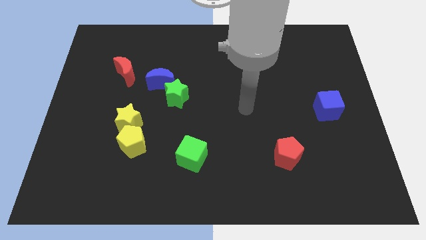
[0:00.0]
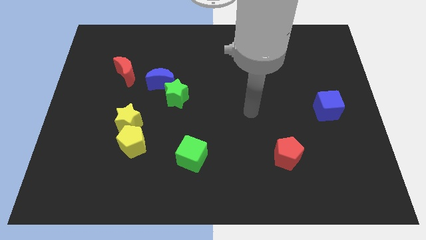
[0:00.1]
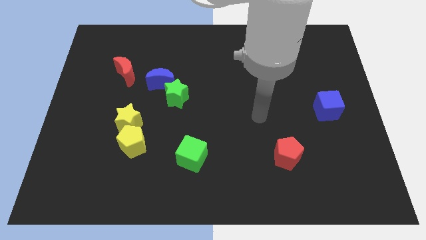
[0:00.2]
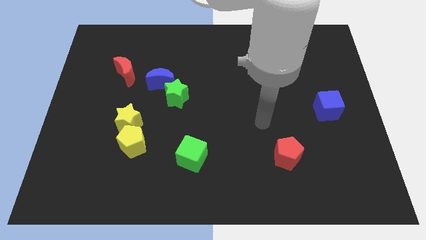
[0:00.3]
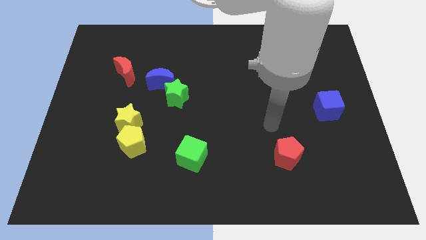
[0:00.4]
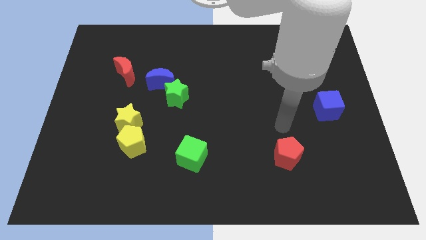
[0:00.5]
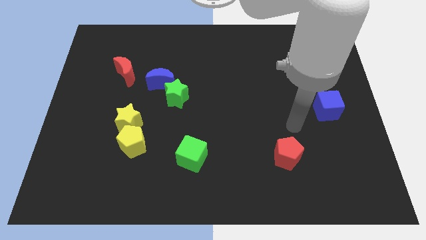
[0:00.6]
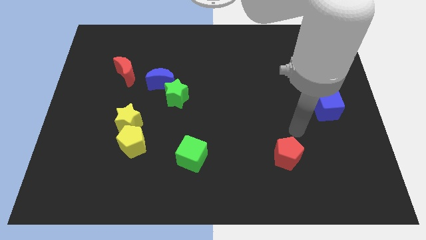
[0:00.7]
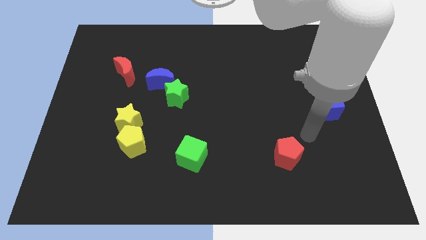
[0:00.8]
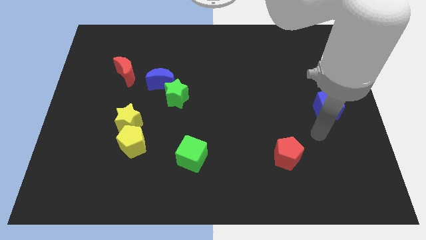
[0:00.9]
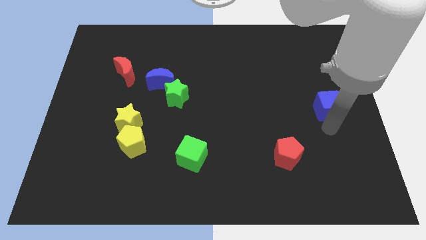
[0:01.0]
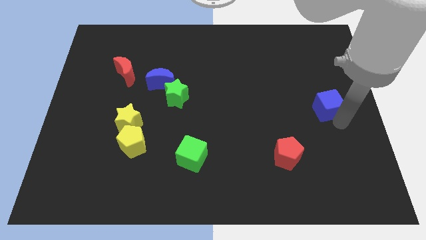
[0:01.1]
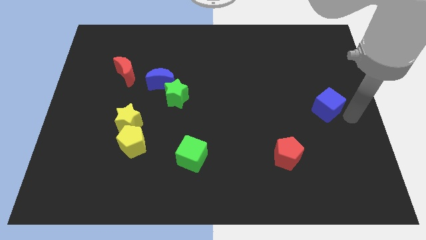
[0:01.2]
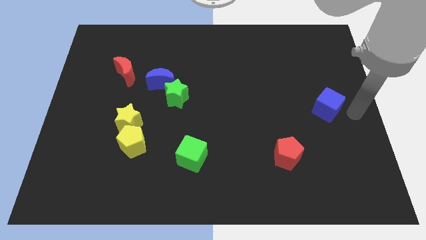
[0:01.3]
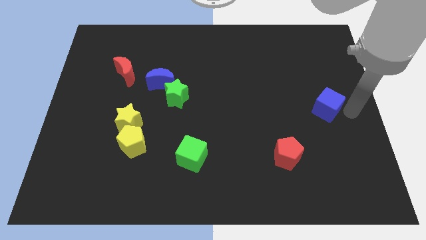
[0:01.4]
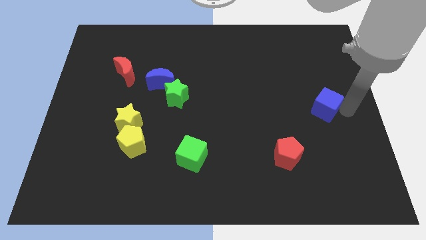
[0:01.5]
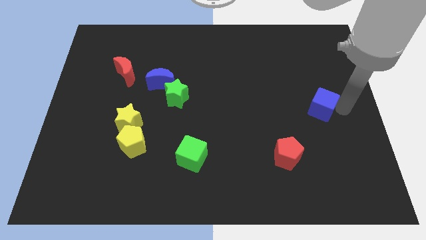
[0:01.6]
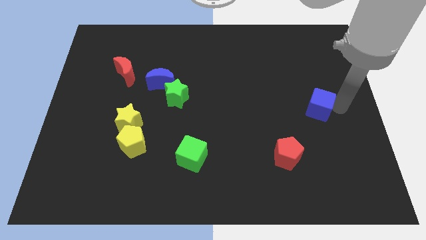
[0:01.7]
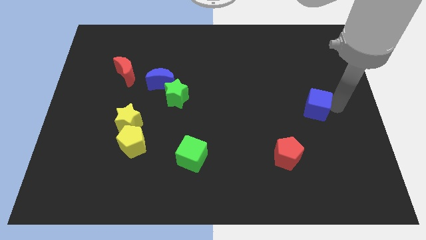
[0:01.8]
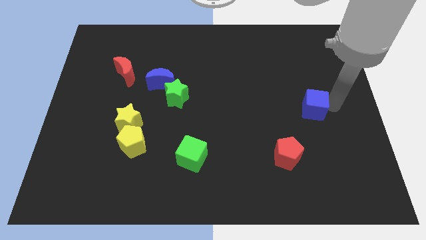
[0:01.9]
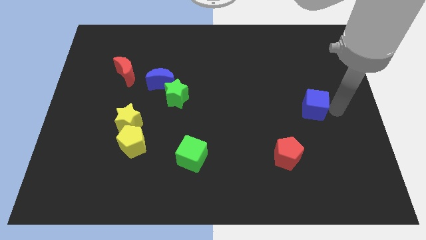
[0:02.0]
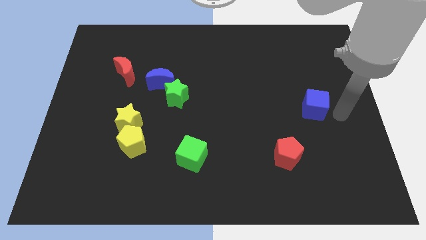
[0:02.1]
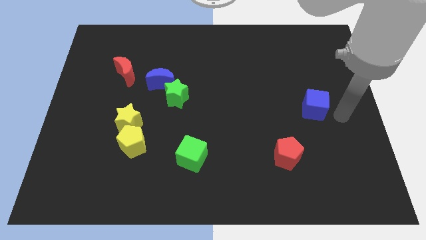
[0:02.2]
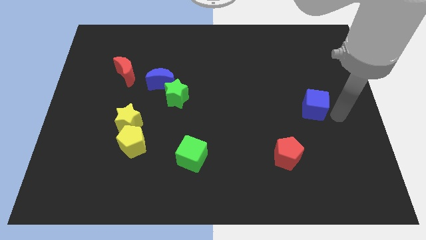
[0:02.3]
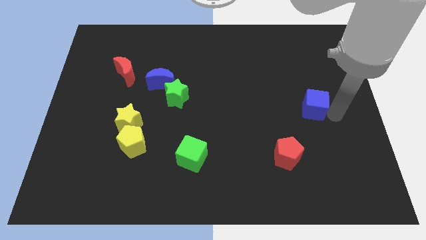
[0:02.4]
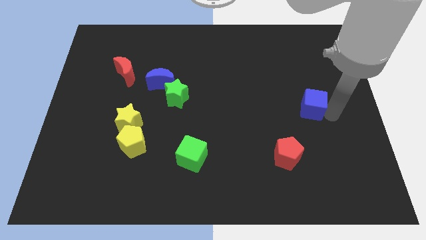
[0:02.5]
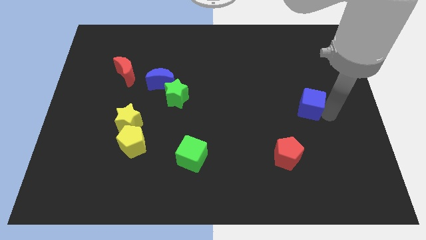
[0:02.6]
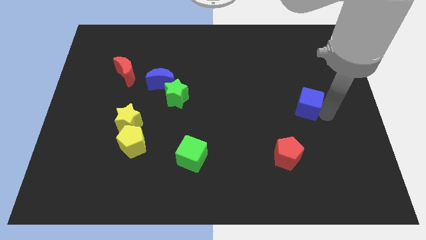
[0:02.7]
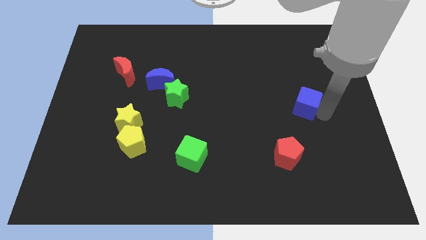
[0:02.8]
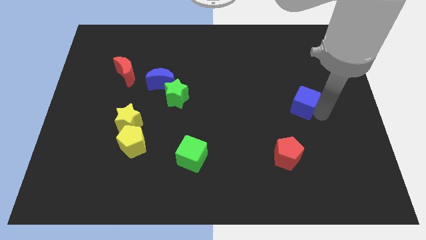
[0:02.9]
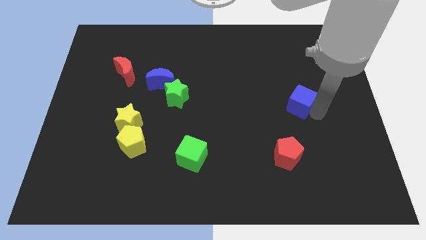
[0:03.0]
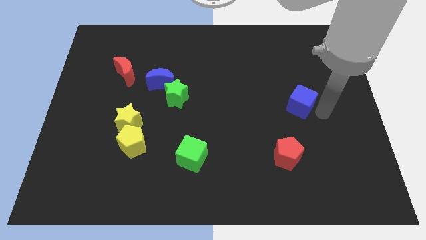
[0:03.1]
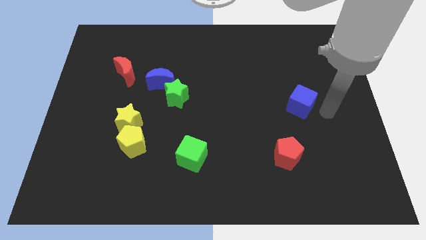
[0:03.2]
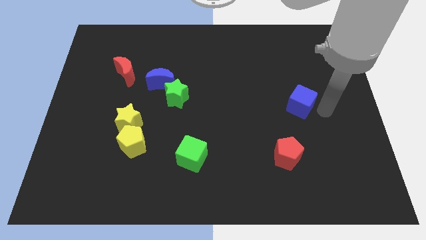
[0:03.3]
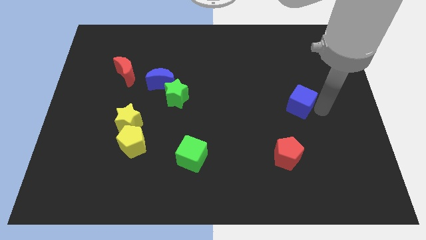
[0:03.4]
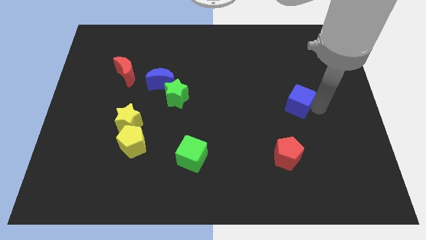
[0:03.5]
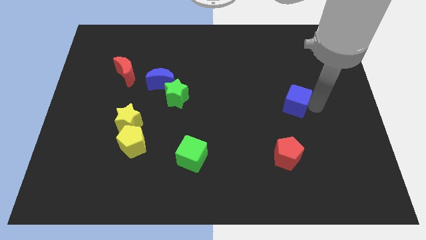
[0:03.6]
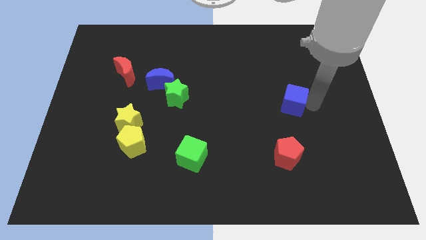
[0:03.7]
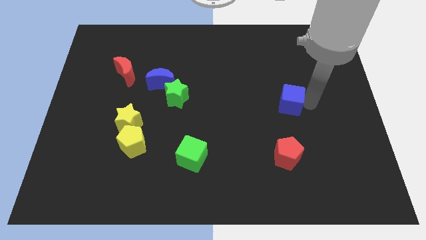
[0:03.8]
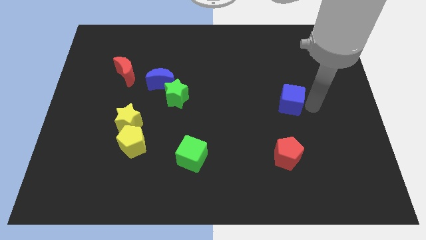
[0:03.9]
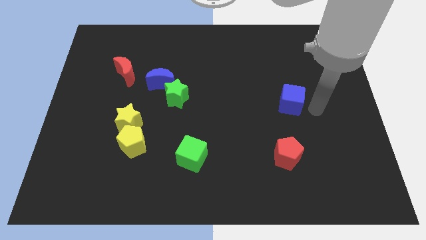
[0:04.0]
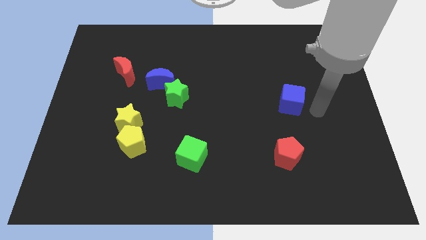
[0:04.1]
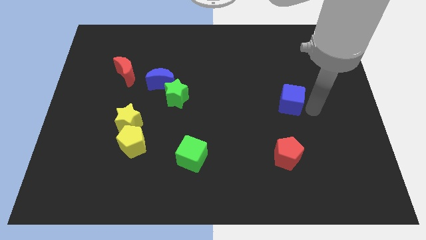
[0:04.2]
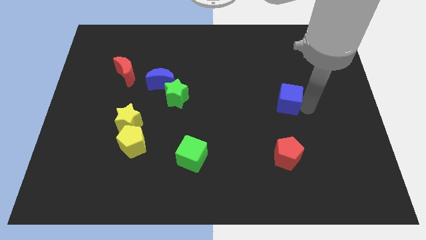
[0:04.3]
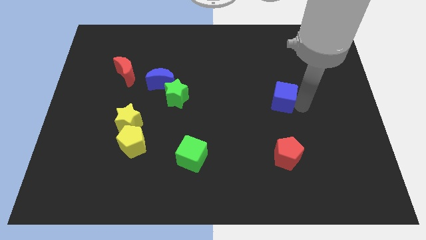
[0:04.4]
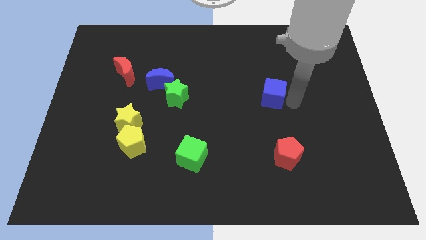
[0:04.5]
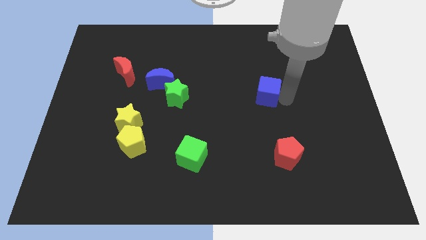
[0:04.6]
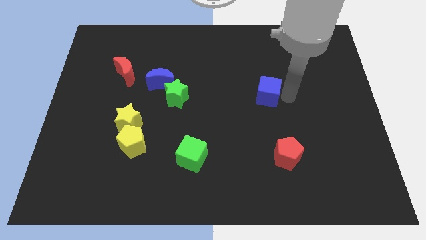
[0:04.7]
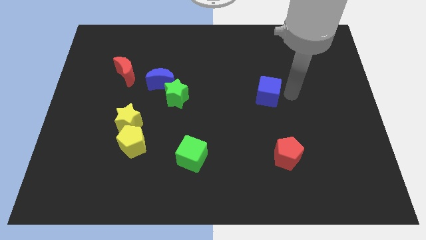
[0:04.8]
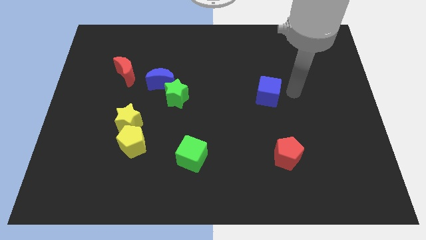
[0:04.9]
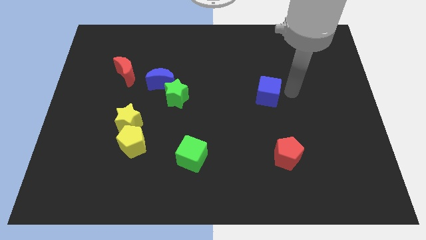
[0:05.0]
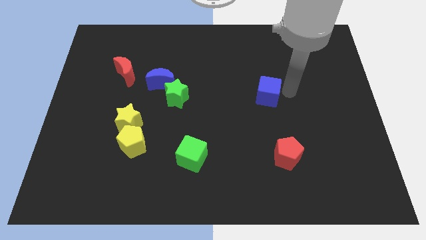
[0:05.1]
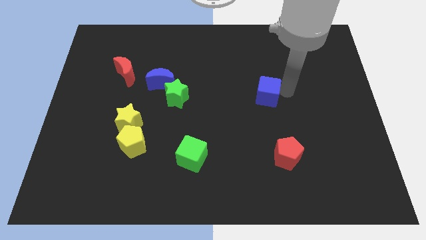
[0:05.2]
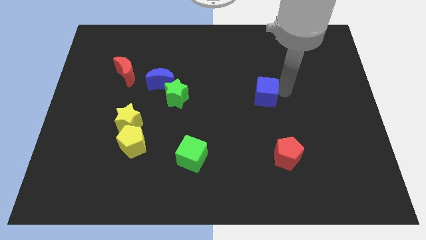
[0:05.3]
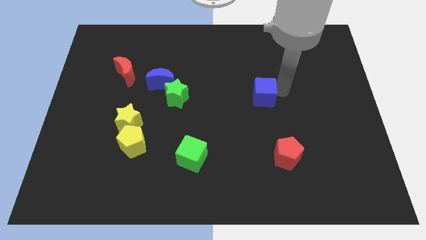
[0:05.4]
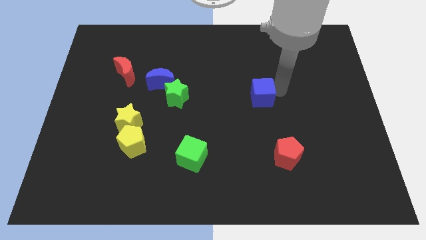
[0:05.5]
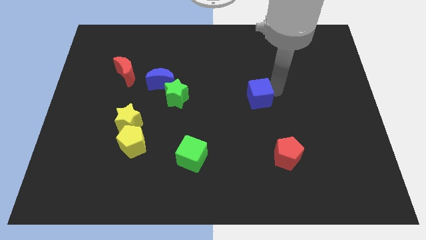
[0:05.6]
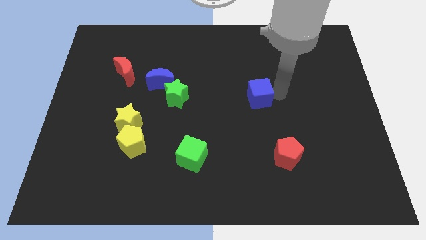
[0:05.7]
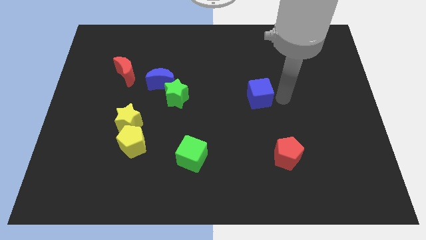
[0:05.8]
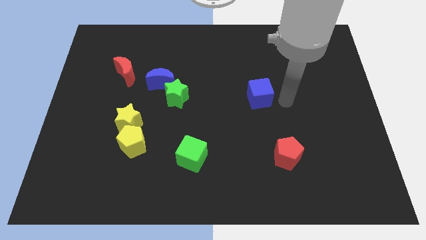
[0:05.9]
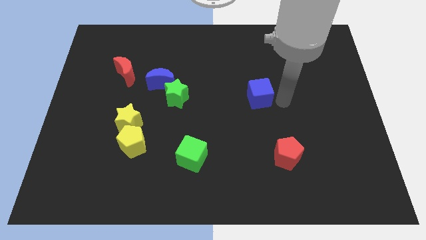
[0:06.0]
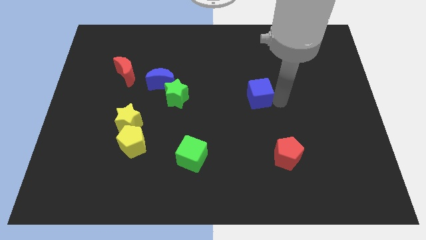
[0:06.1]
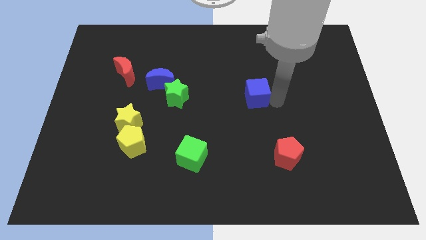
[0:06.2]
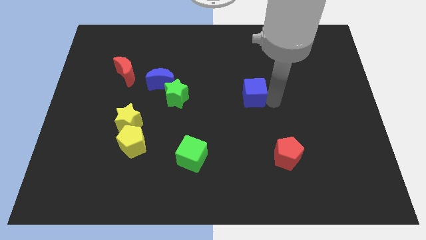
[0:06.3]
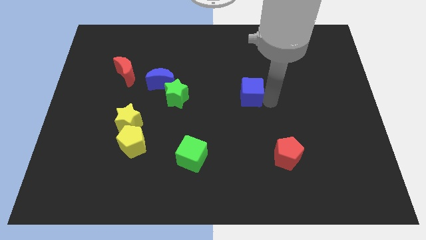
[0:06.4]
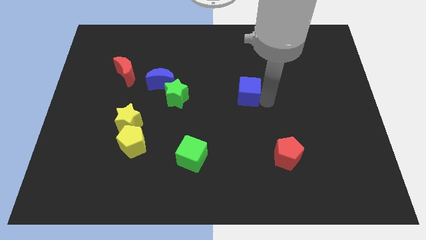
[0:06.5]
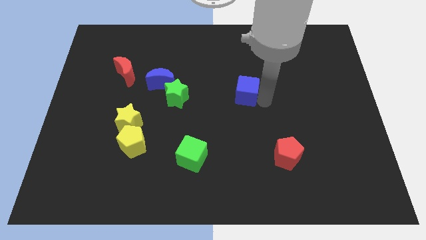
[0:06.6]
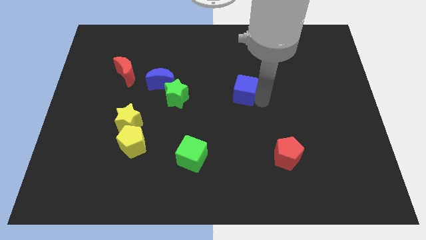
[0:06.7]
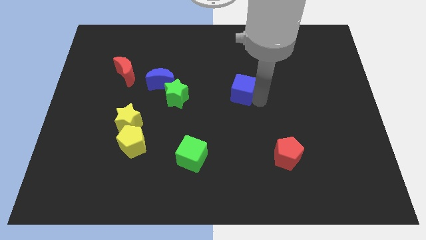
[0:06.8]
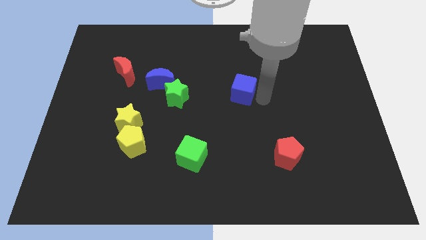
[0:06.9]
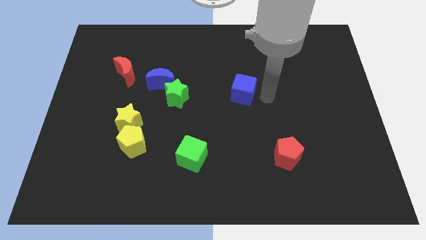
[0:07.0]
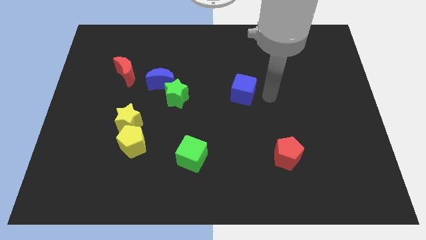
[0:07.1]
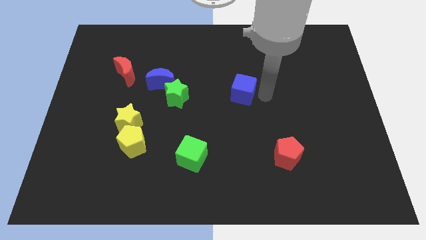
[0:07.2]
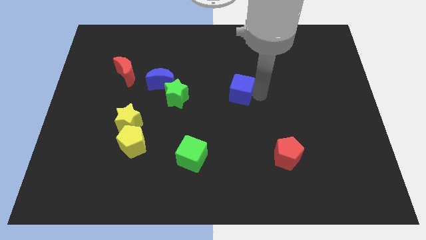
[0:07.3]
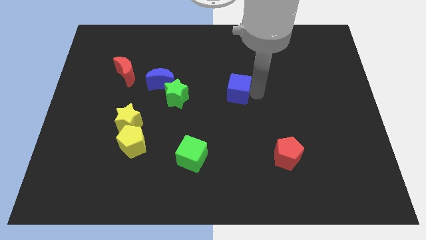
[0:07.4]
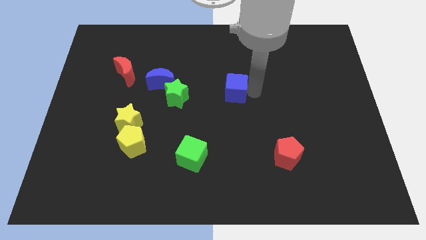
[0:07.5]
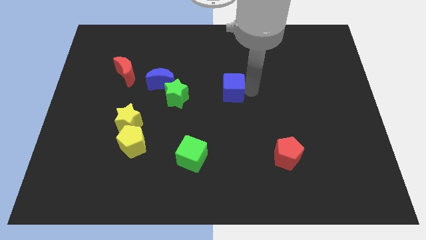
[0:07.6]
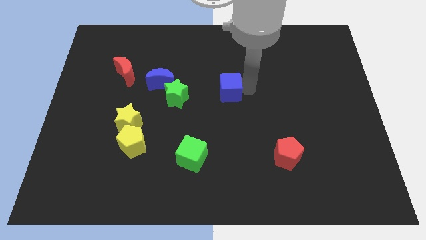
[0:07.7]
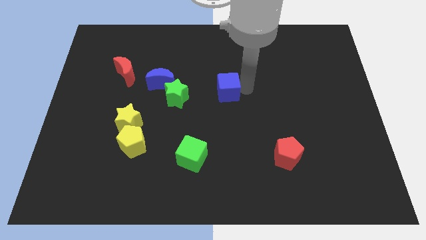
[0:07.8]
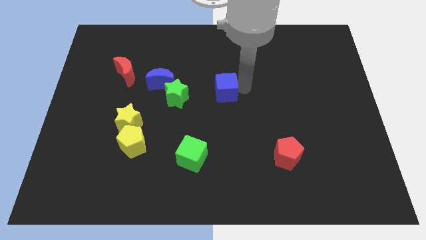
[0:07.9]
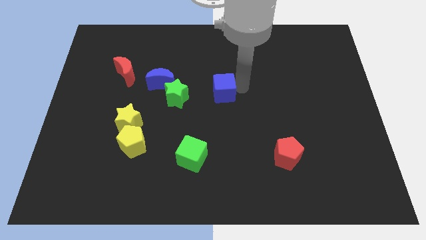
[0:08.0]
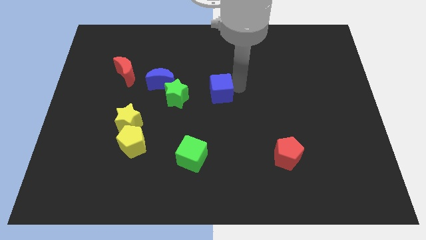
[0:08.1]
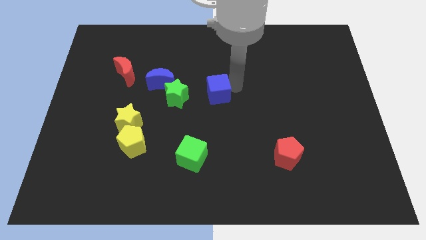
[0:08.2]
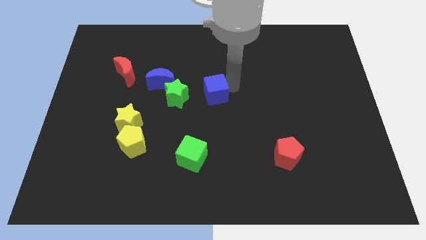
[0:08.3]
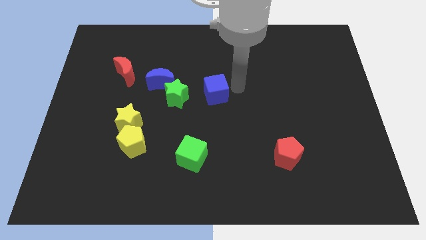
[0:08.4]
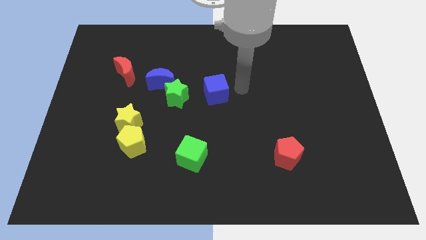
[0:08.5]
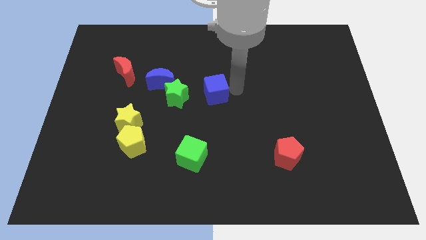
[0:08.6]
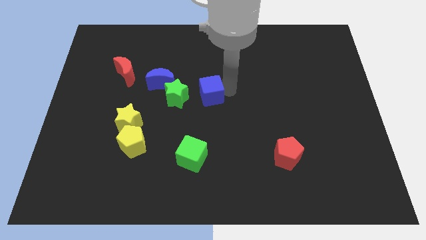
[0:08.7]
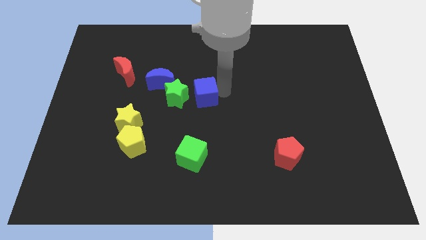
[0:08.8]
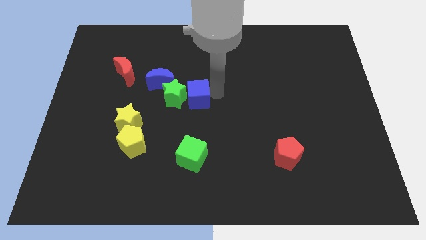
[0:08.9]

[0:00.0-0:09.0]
slide the blue cube to the green star
